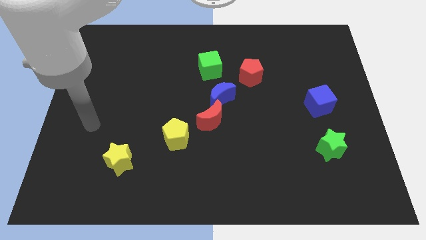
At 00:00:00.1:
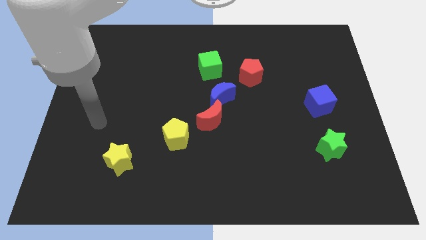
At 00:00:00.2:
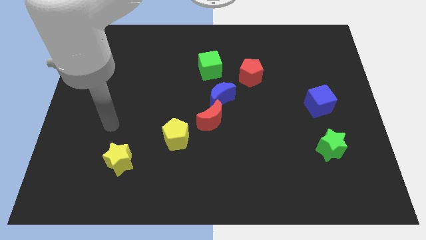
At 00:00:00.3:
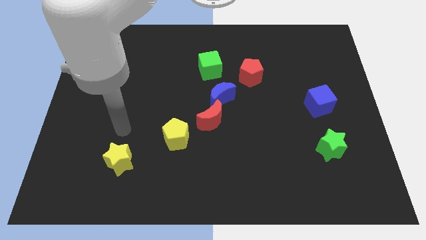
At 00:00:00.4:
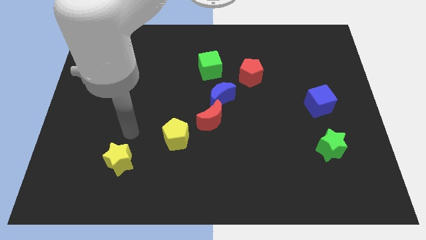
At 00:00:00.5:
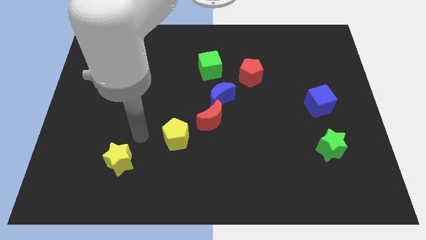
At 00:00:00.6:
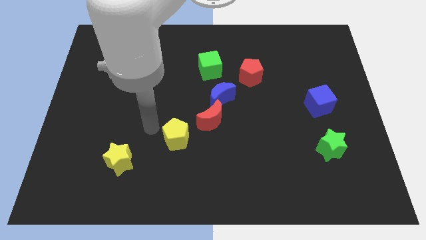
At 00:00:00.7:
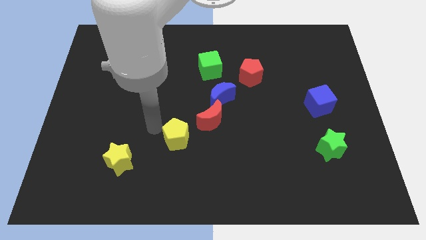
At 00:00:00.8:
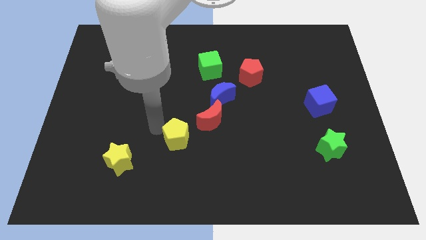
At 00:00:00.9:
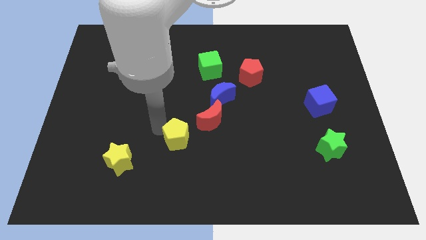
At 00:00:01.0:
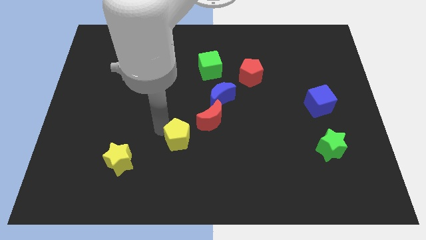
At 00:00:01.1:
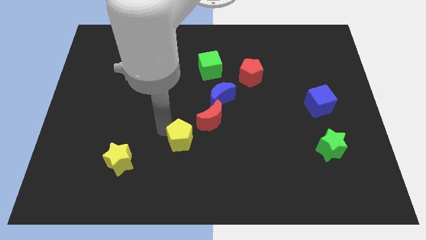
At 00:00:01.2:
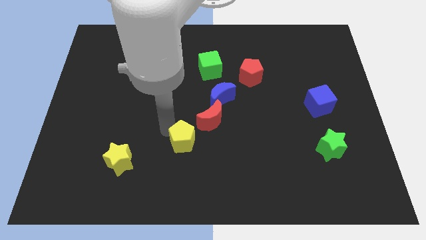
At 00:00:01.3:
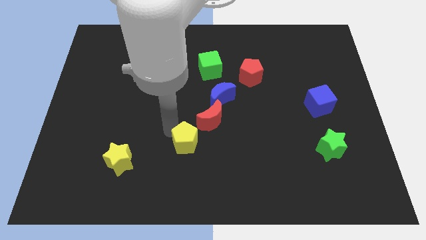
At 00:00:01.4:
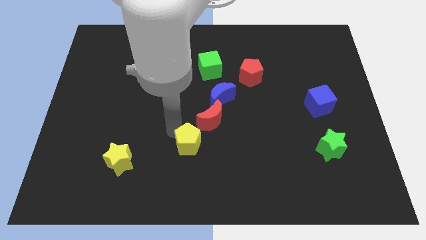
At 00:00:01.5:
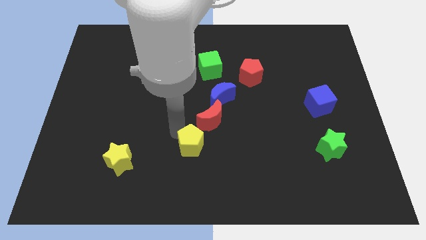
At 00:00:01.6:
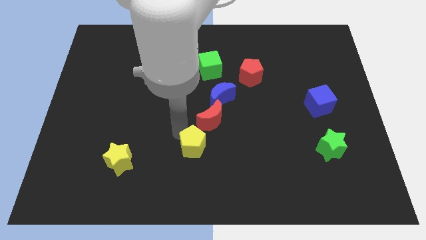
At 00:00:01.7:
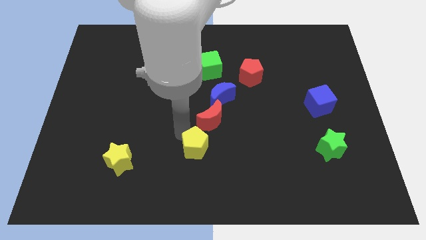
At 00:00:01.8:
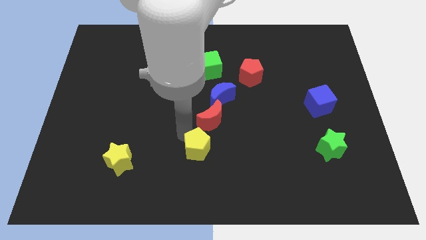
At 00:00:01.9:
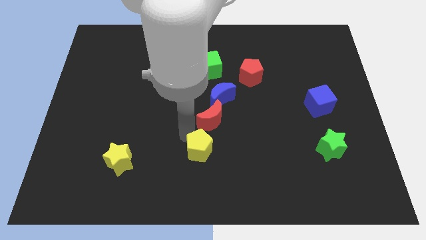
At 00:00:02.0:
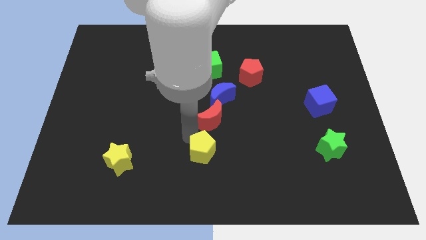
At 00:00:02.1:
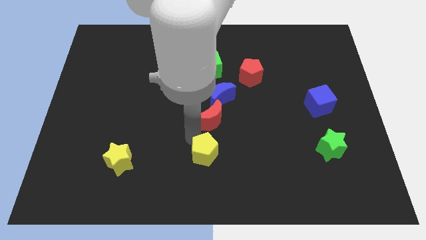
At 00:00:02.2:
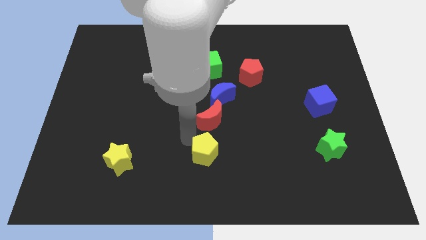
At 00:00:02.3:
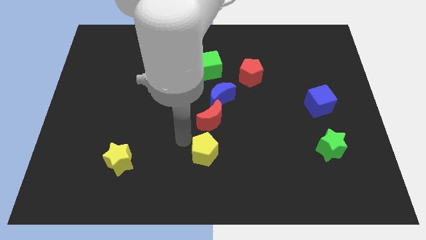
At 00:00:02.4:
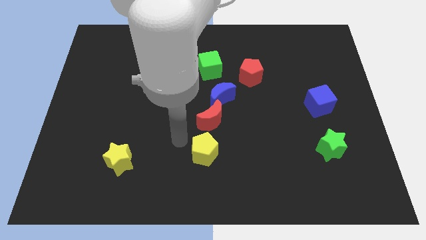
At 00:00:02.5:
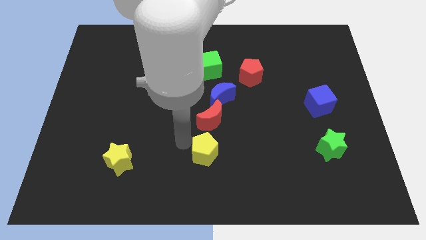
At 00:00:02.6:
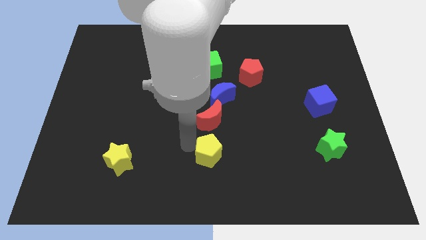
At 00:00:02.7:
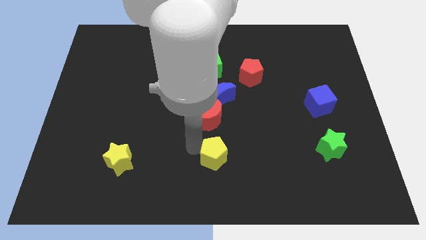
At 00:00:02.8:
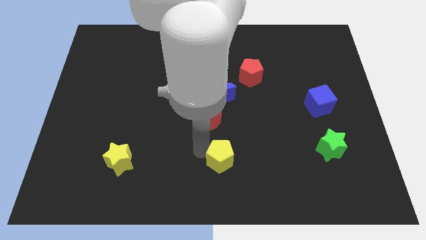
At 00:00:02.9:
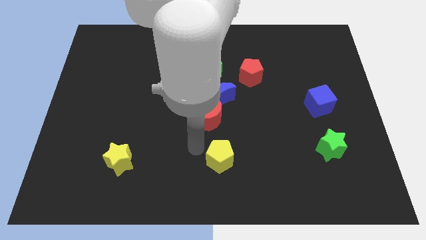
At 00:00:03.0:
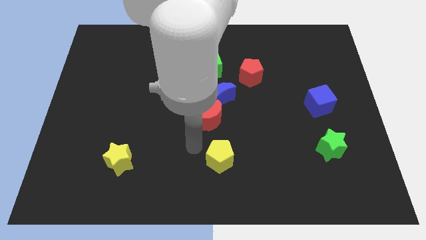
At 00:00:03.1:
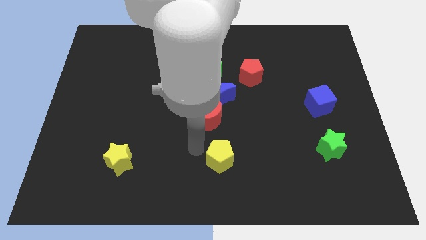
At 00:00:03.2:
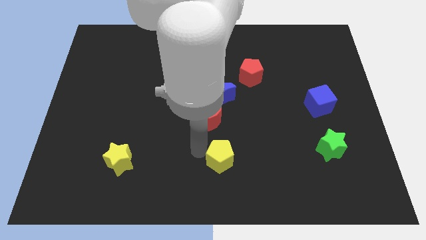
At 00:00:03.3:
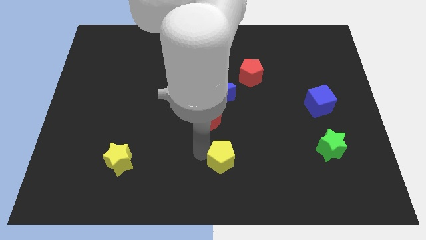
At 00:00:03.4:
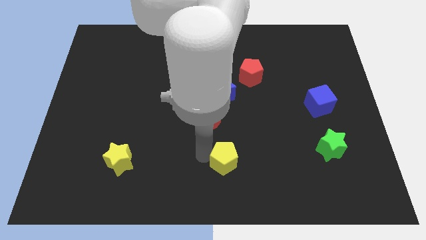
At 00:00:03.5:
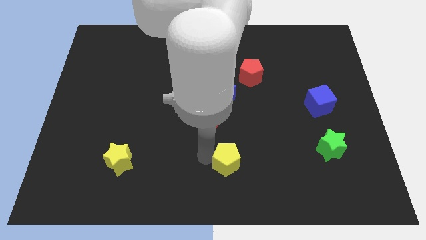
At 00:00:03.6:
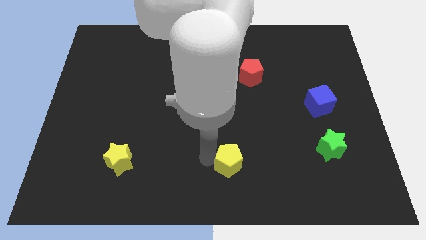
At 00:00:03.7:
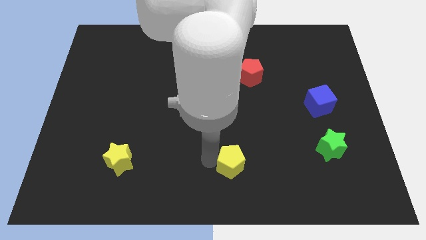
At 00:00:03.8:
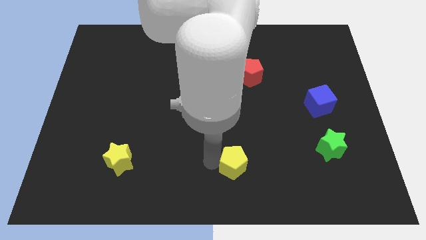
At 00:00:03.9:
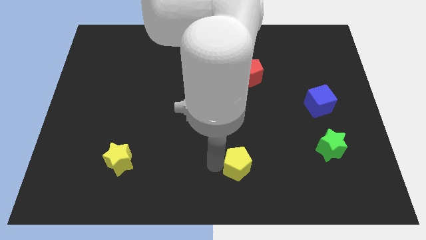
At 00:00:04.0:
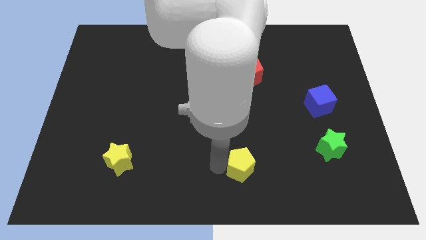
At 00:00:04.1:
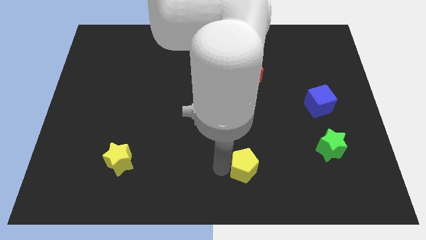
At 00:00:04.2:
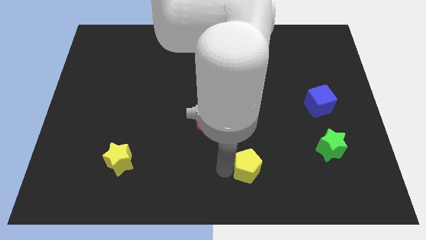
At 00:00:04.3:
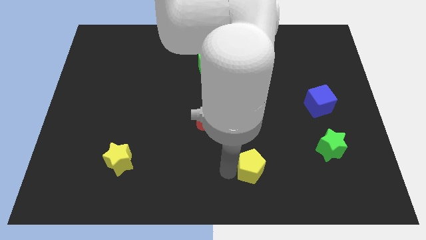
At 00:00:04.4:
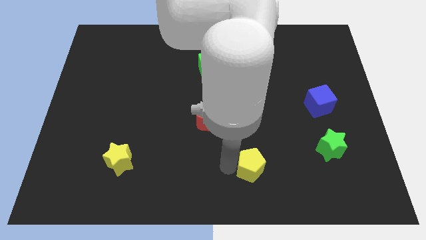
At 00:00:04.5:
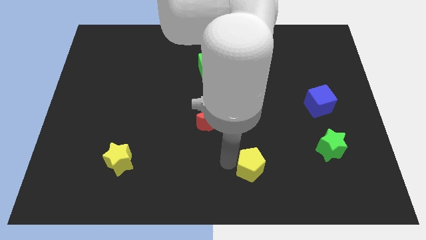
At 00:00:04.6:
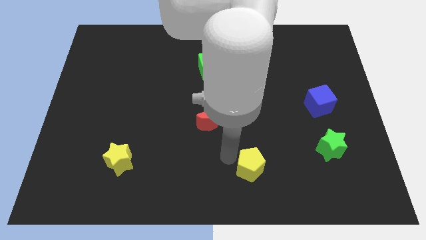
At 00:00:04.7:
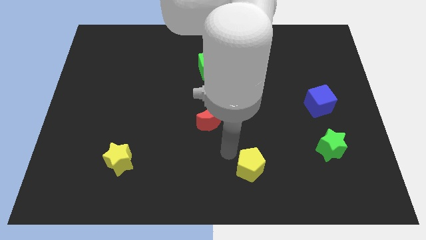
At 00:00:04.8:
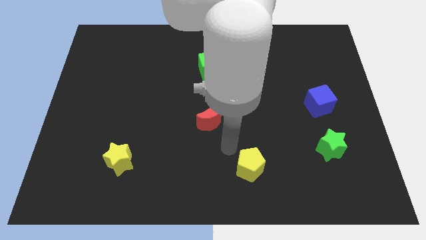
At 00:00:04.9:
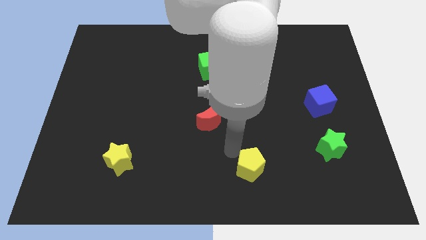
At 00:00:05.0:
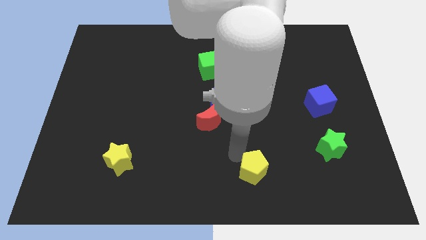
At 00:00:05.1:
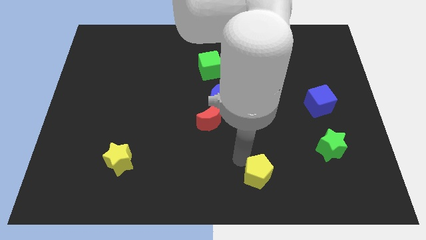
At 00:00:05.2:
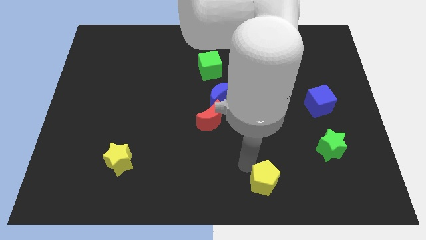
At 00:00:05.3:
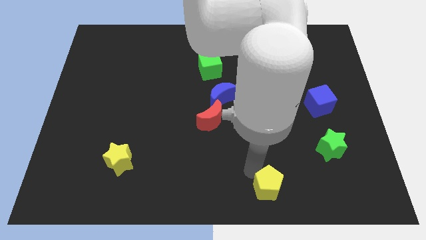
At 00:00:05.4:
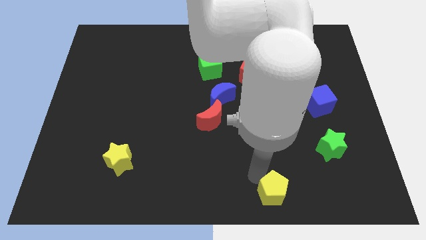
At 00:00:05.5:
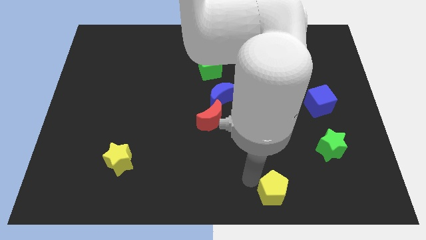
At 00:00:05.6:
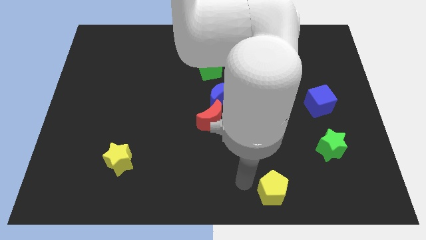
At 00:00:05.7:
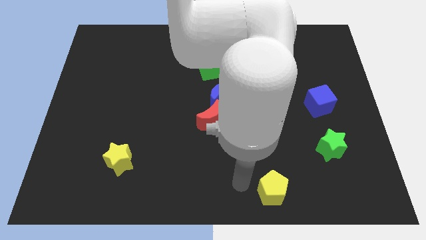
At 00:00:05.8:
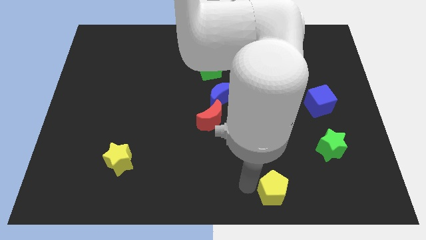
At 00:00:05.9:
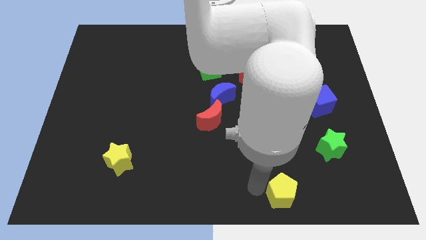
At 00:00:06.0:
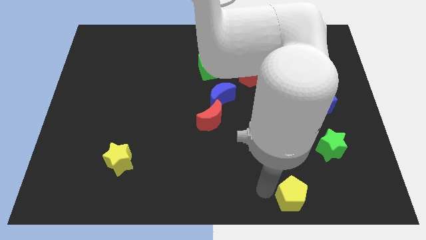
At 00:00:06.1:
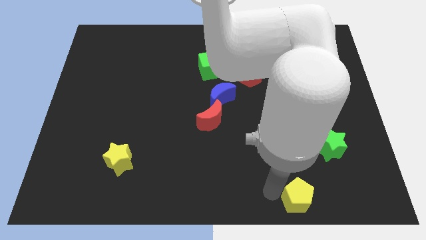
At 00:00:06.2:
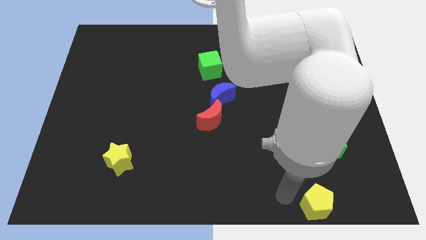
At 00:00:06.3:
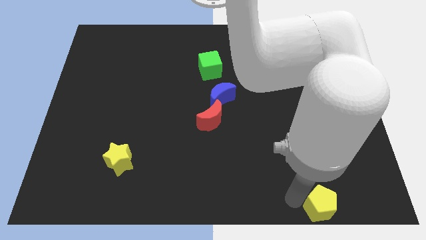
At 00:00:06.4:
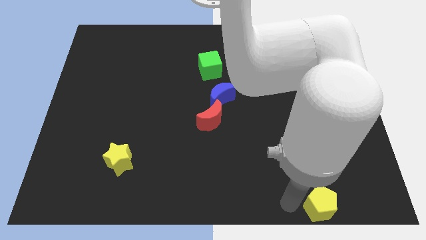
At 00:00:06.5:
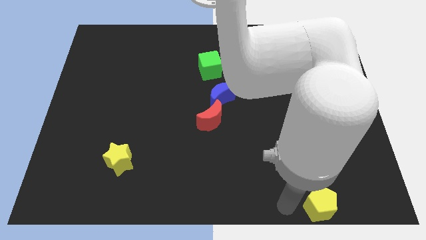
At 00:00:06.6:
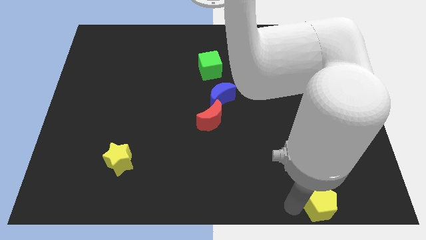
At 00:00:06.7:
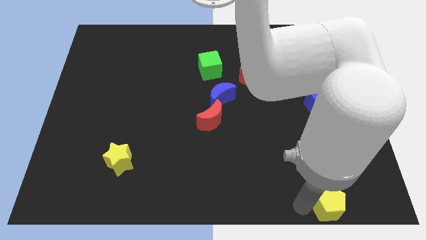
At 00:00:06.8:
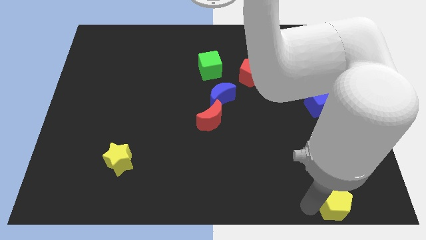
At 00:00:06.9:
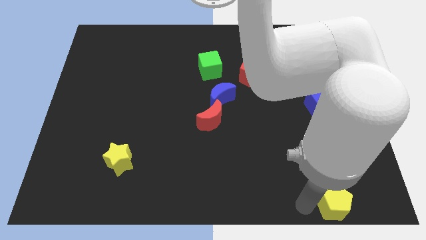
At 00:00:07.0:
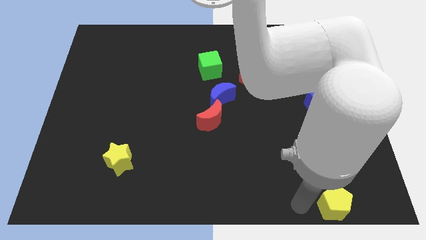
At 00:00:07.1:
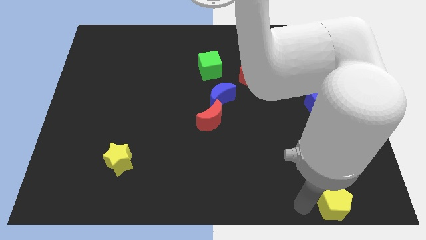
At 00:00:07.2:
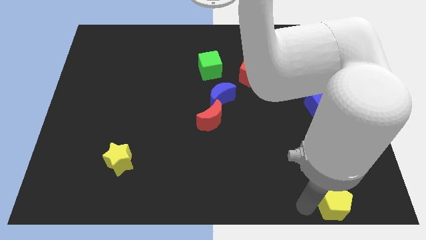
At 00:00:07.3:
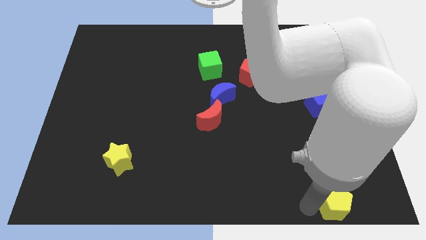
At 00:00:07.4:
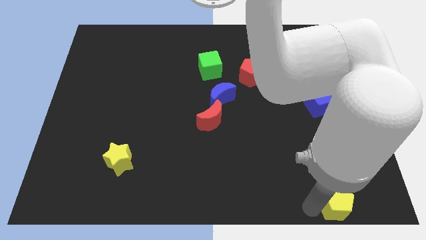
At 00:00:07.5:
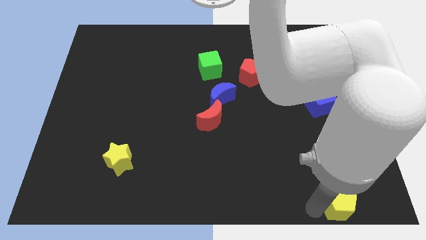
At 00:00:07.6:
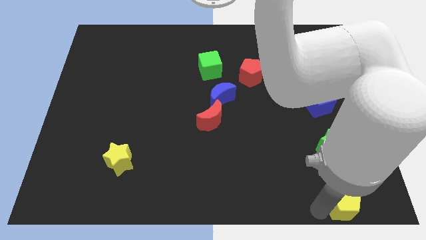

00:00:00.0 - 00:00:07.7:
put the yellow pentagon to the bottom right of the board

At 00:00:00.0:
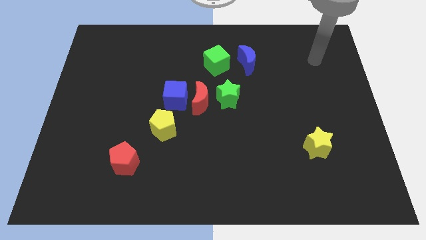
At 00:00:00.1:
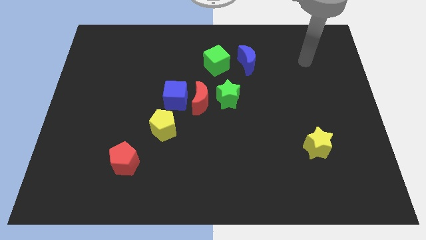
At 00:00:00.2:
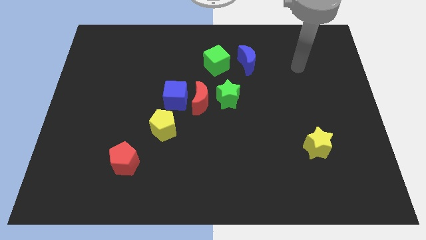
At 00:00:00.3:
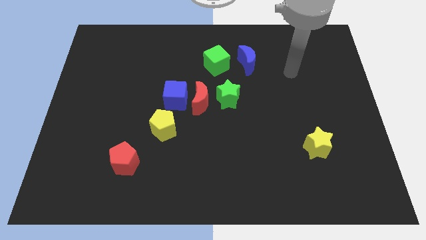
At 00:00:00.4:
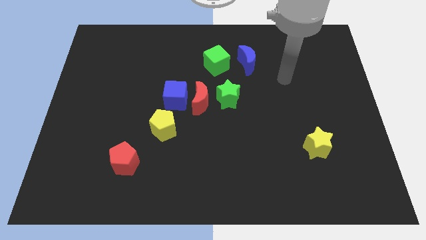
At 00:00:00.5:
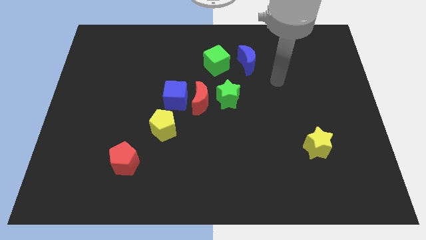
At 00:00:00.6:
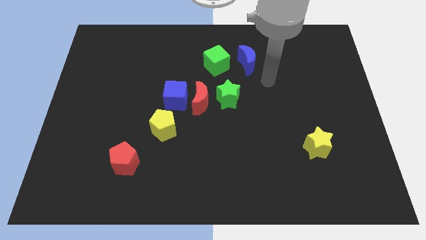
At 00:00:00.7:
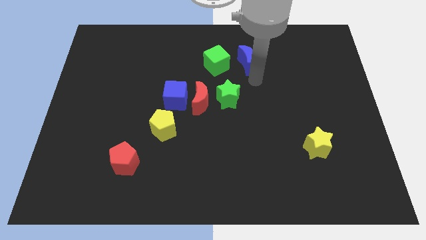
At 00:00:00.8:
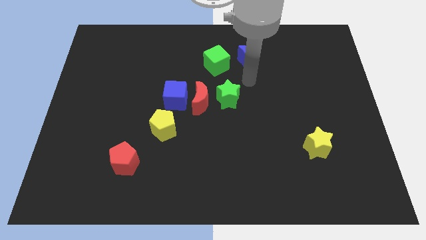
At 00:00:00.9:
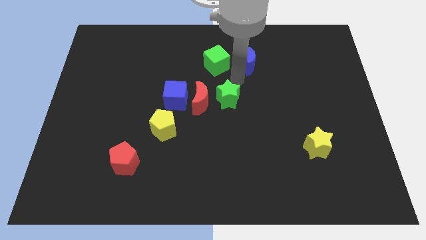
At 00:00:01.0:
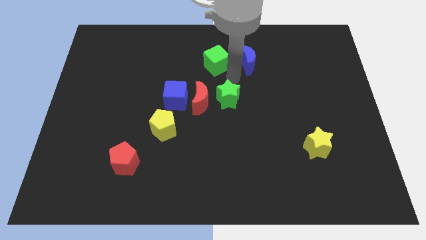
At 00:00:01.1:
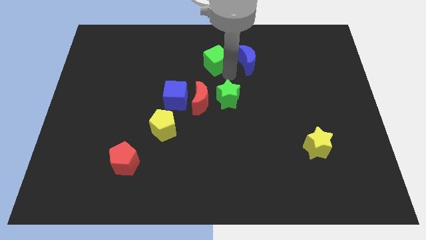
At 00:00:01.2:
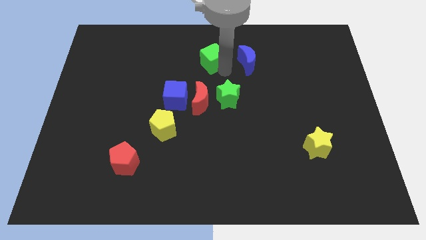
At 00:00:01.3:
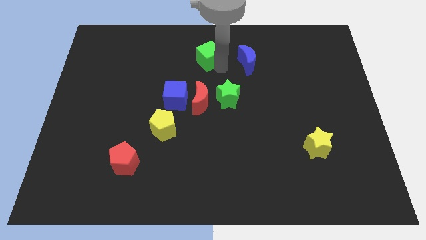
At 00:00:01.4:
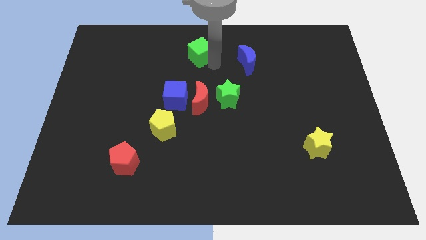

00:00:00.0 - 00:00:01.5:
put the green cube to the towards your base
